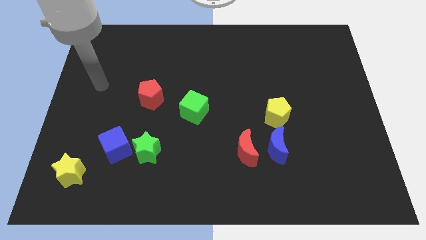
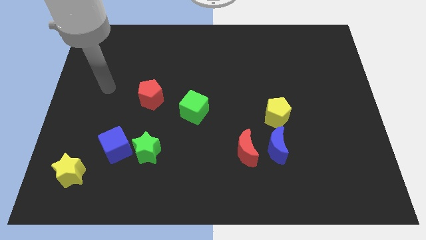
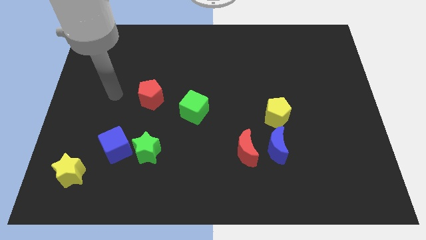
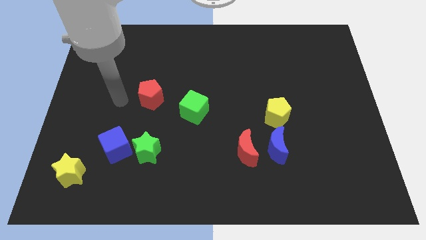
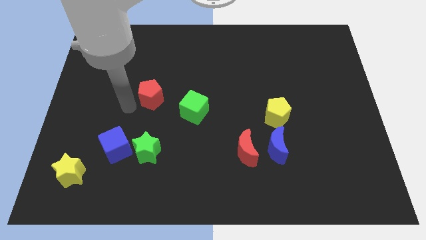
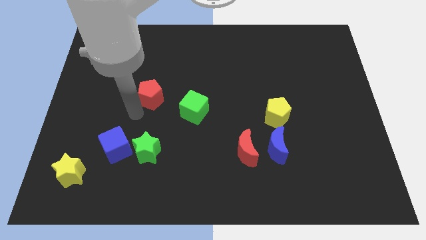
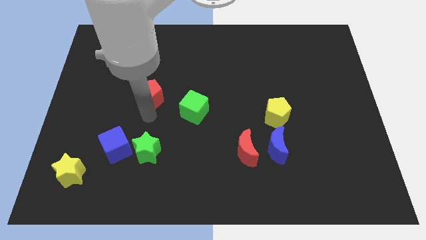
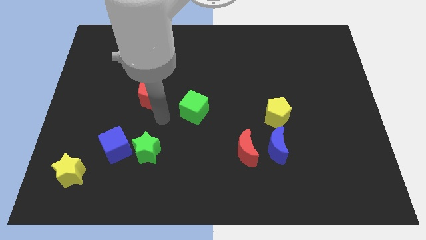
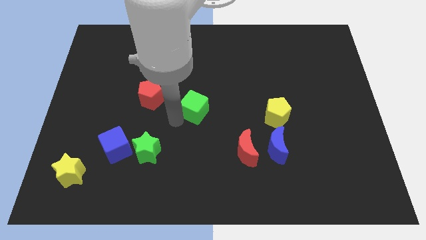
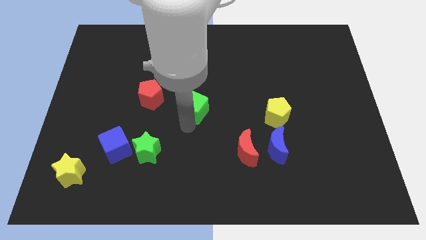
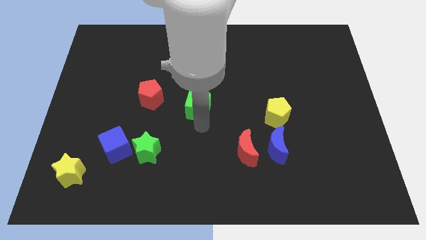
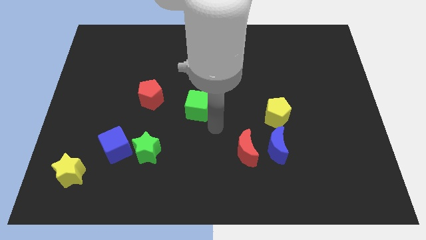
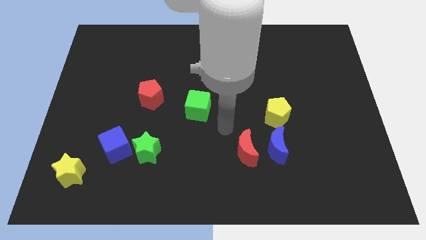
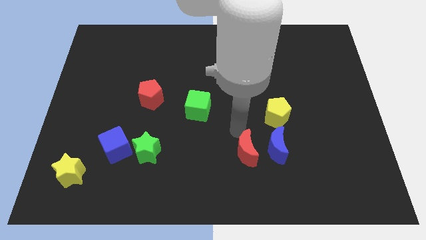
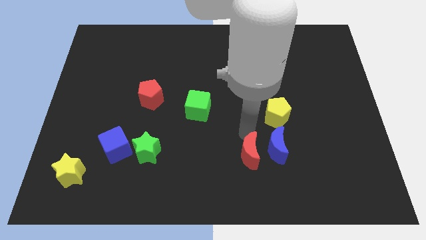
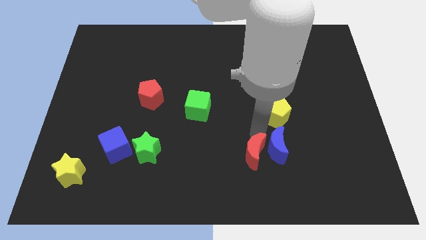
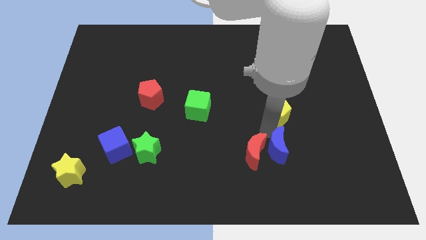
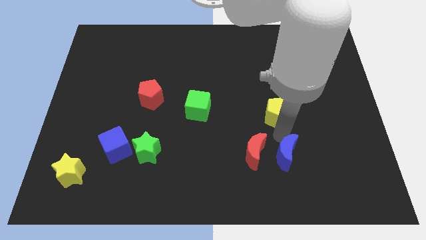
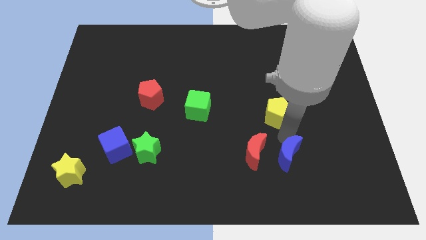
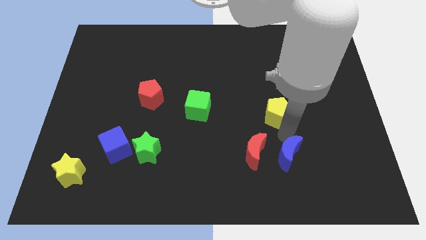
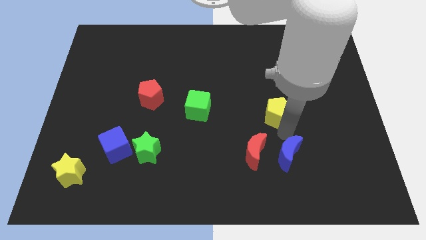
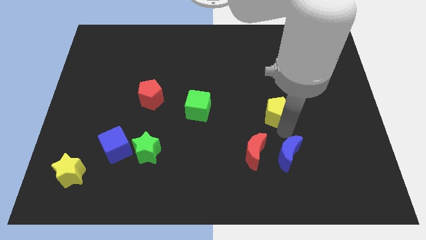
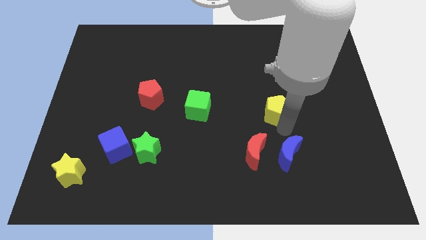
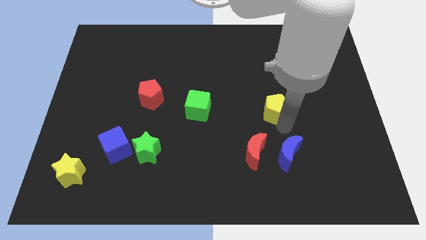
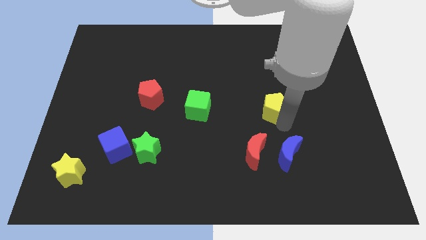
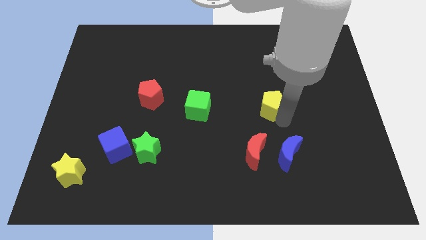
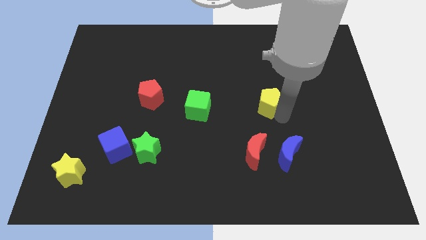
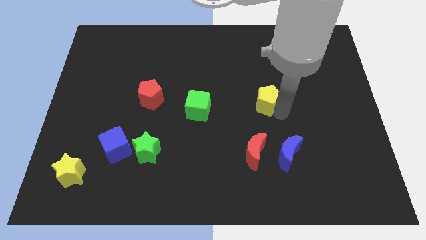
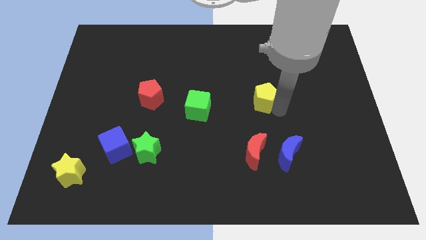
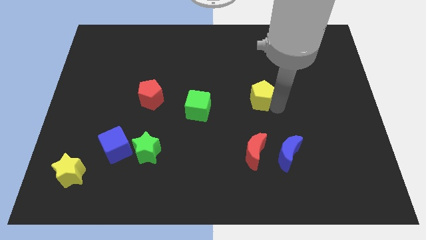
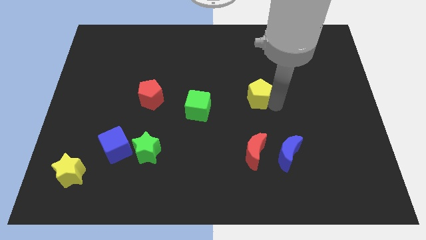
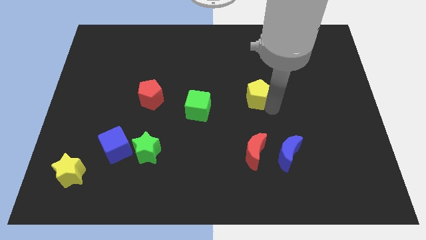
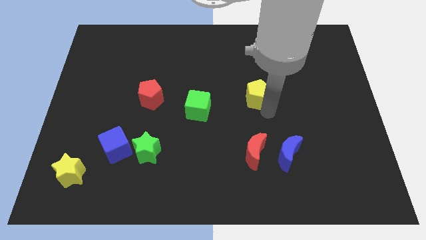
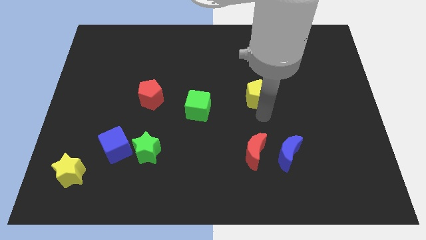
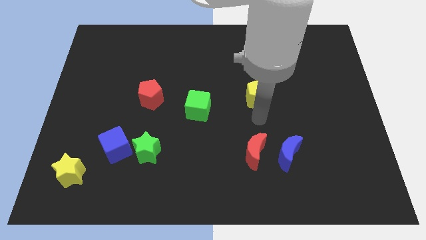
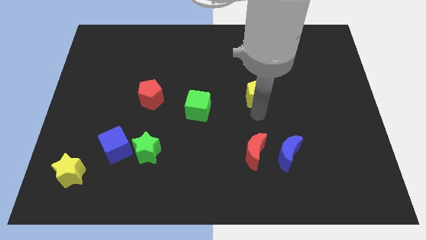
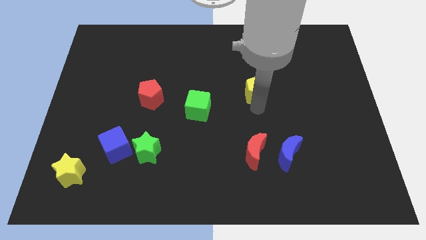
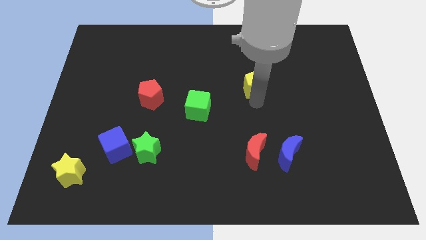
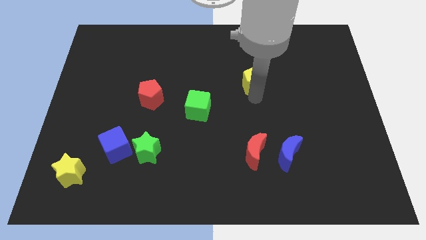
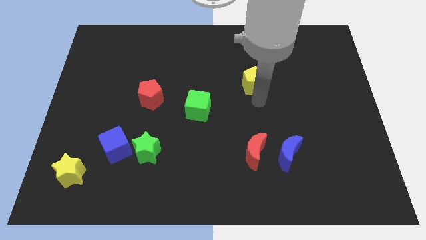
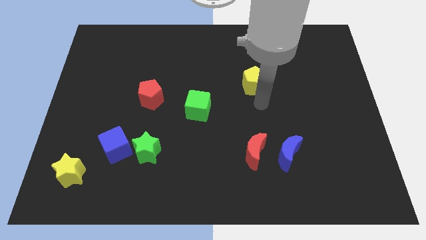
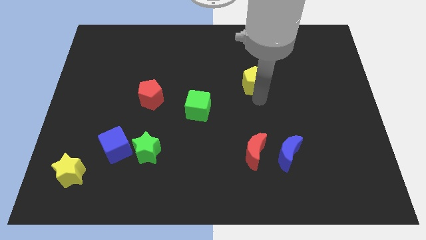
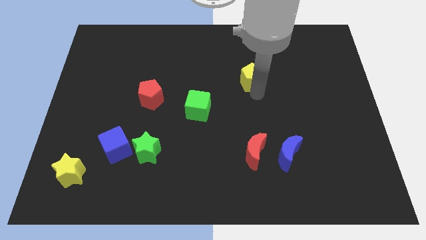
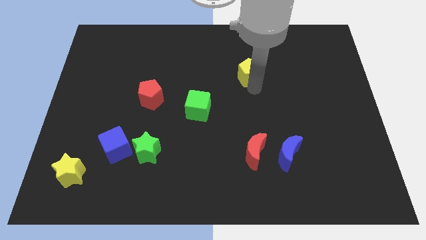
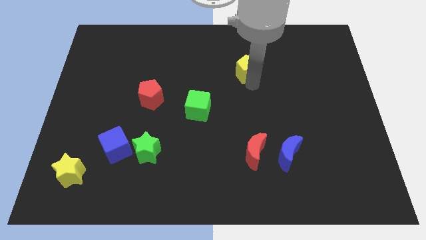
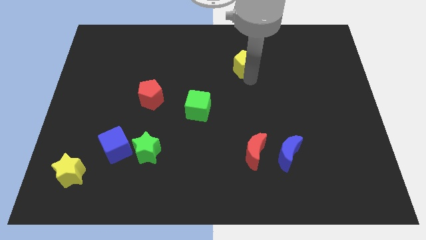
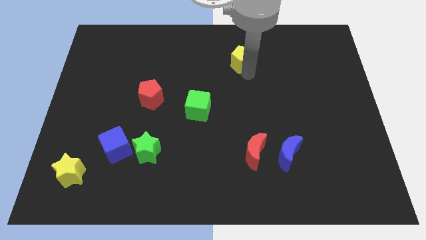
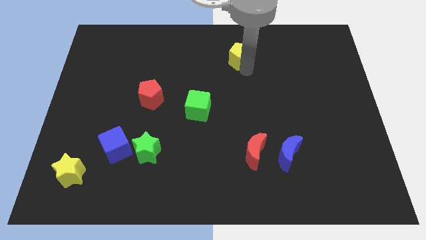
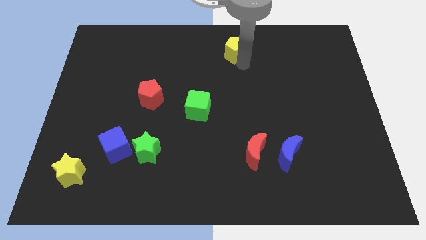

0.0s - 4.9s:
push the yellow pentagon to the top side

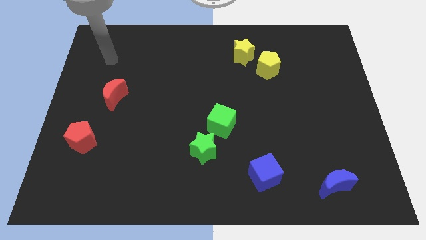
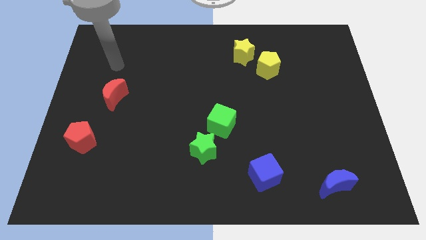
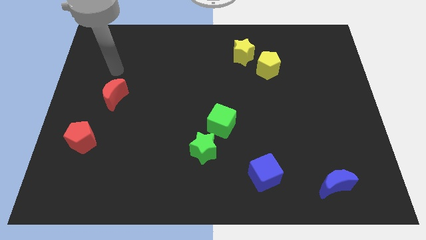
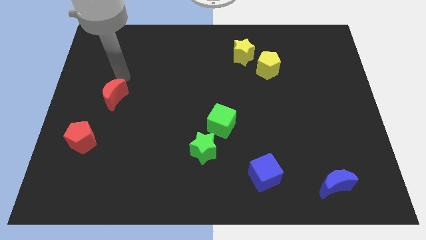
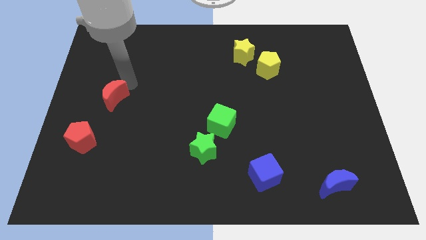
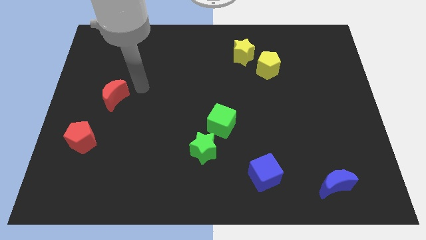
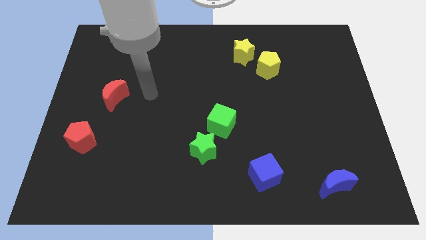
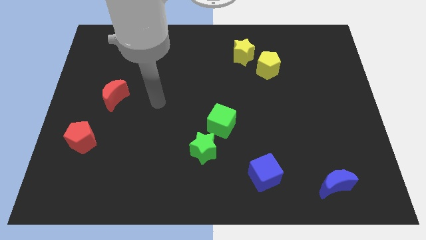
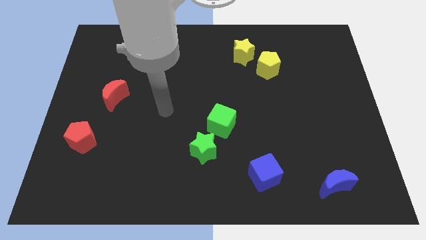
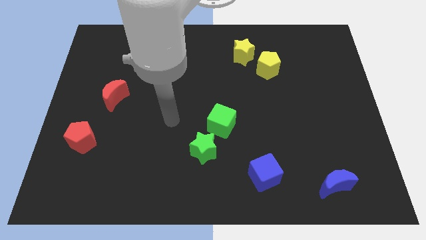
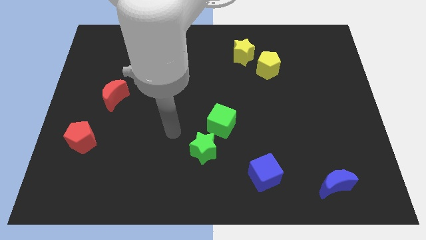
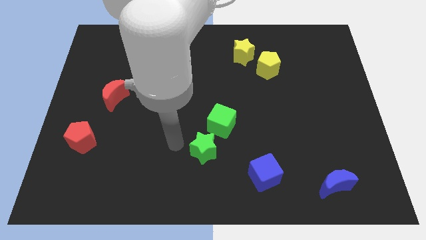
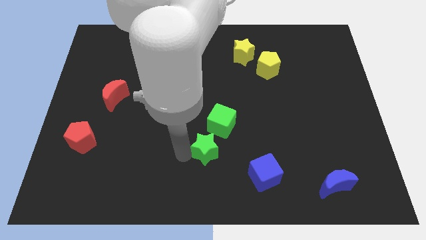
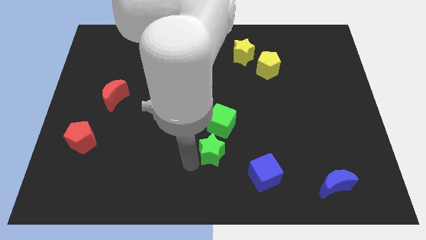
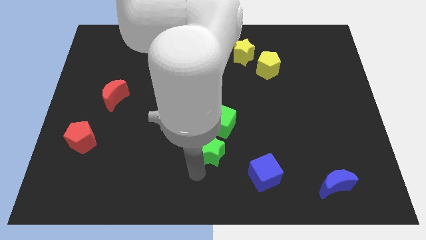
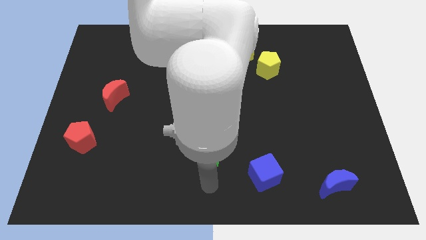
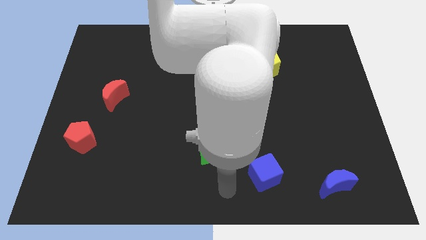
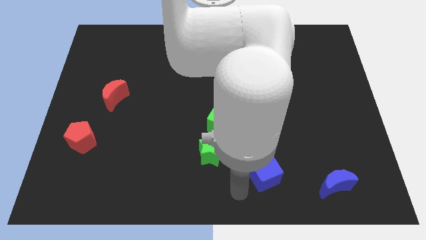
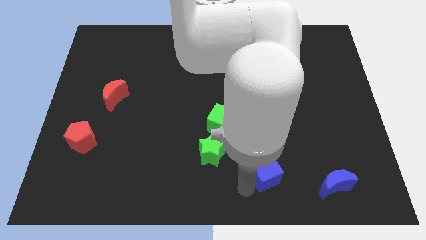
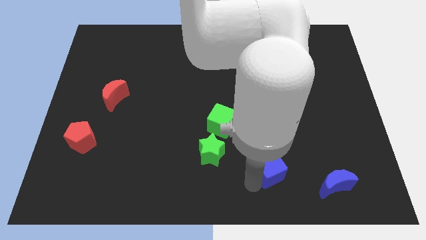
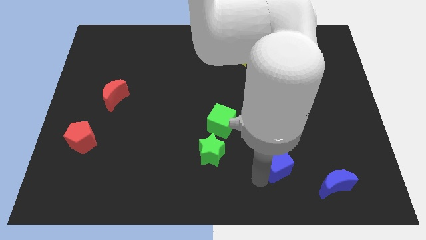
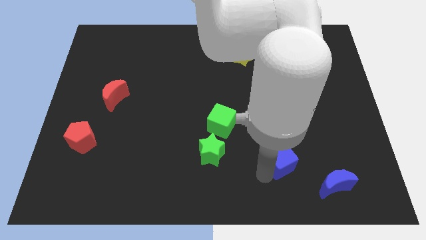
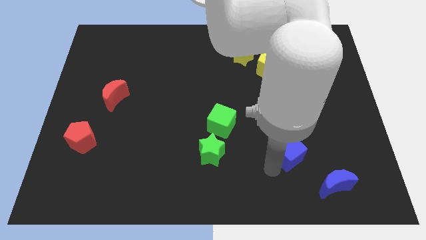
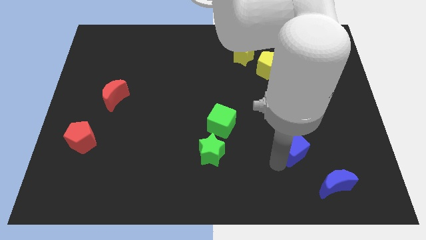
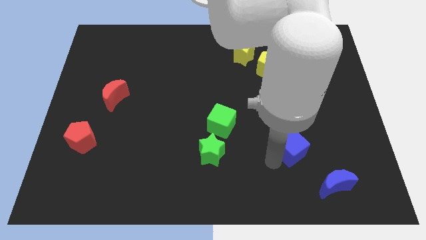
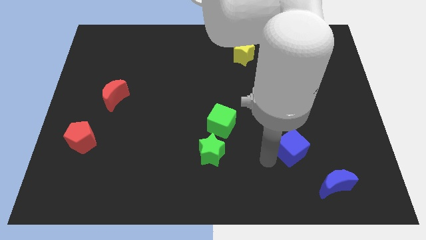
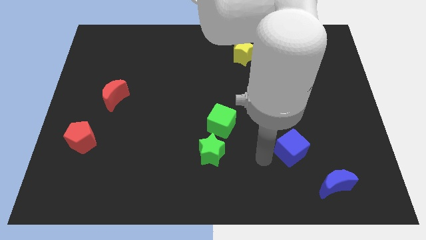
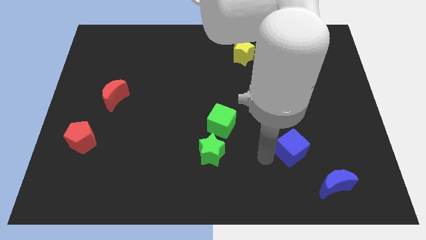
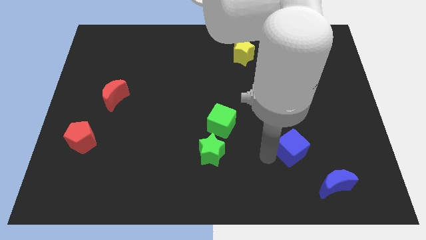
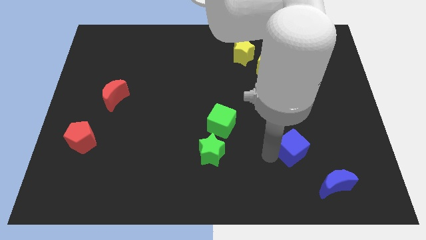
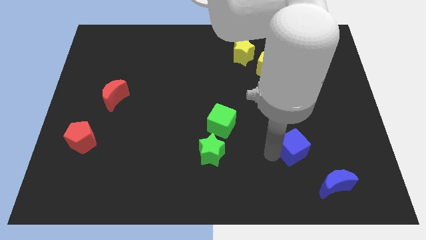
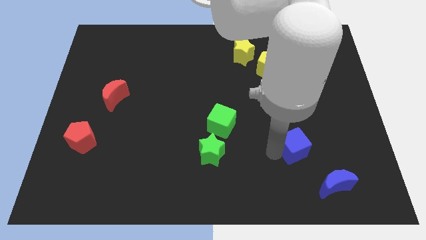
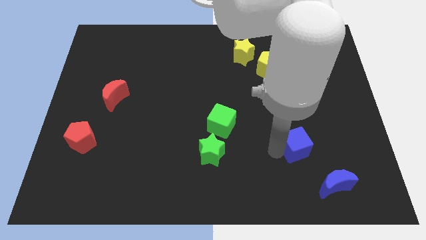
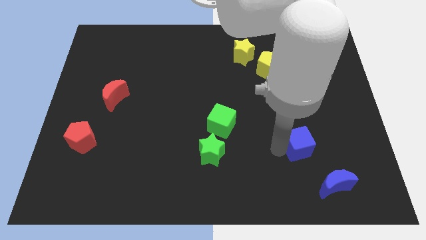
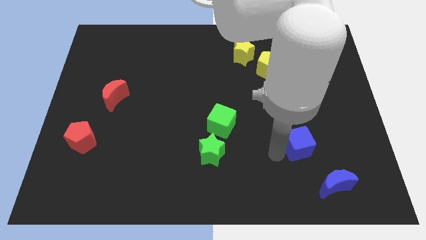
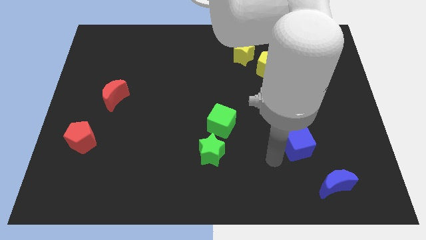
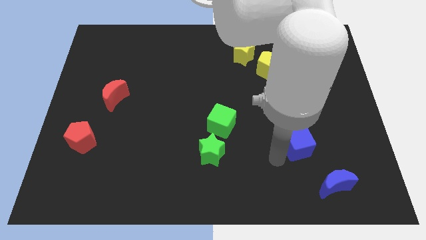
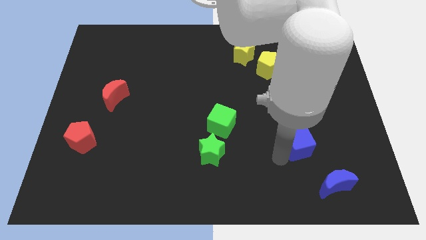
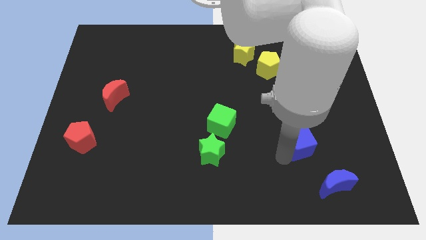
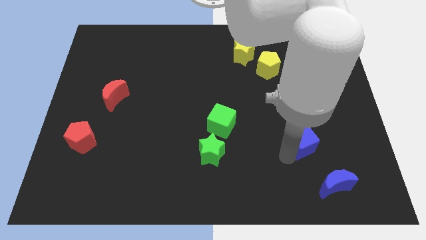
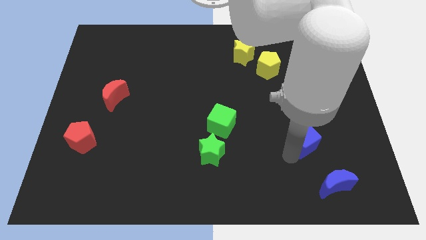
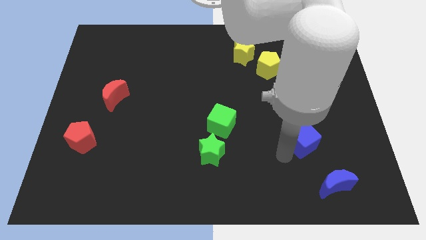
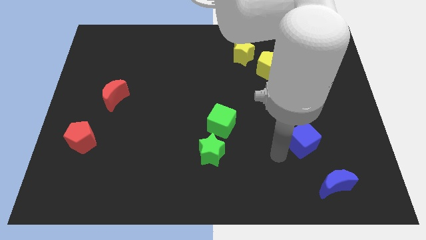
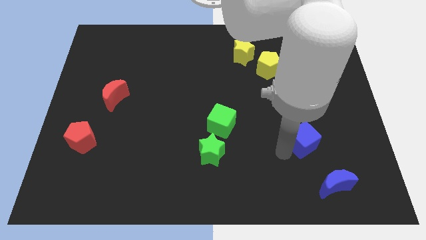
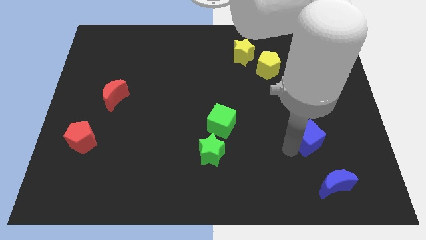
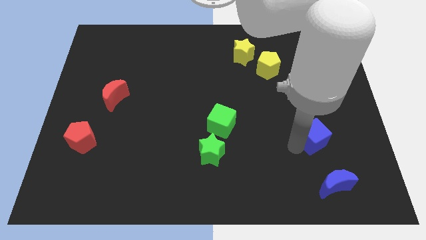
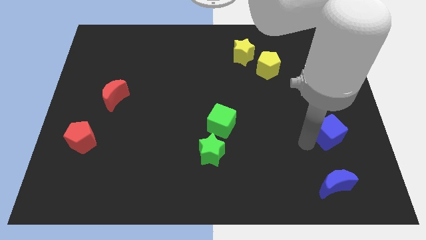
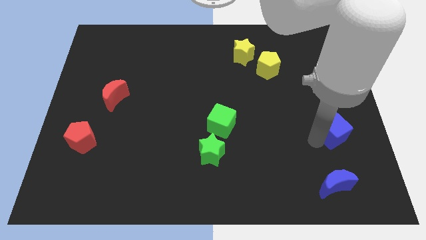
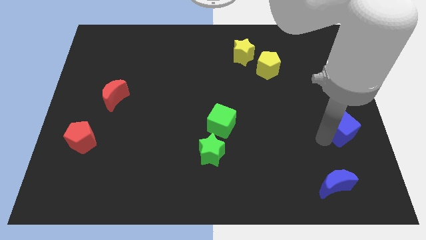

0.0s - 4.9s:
push the blue cube to the right side of the board
